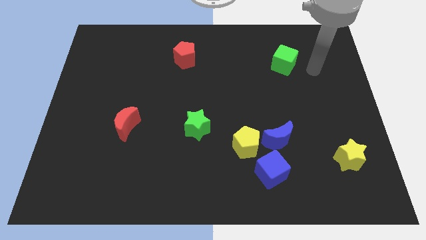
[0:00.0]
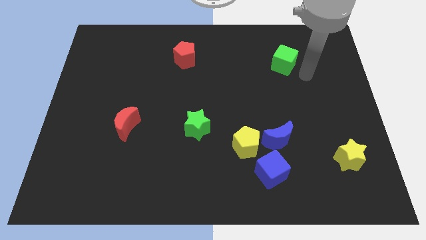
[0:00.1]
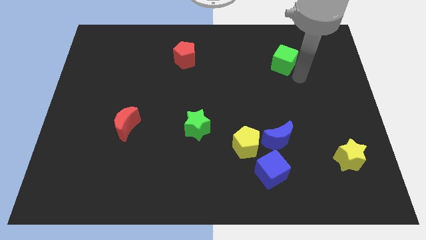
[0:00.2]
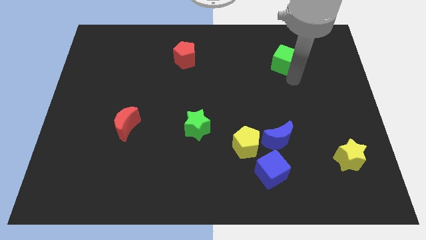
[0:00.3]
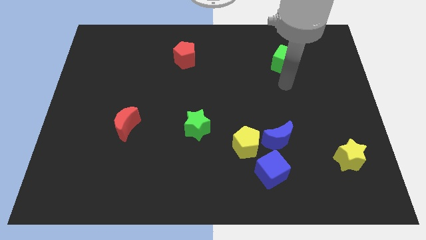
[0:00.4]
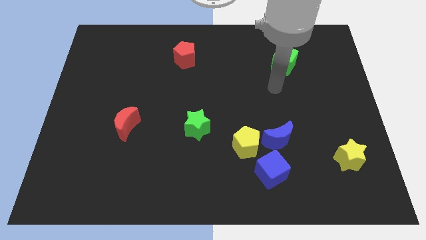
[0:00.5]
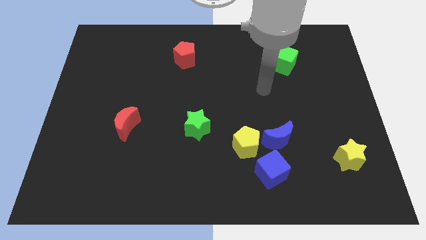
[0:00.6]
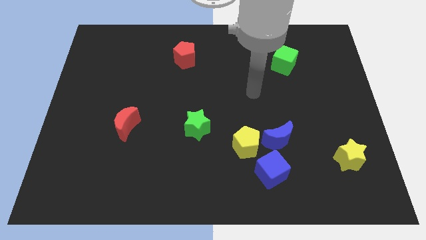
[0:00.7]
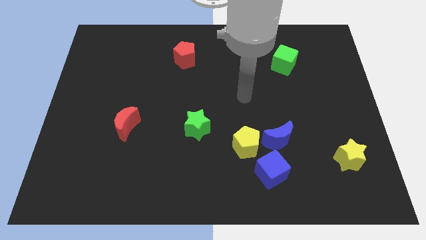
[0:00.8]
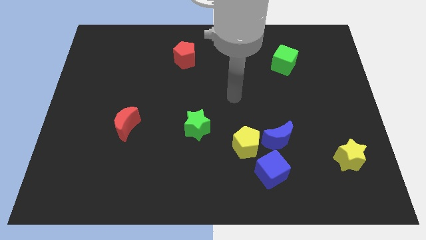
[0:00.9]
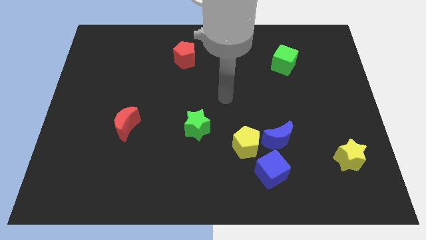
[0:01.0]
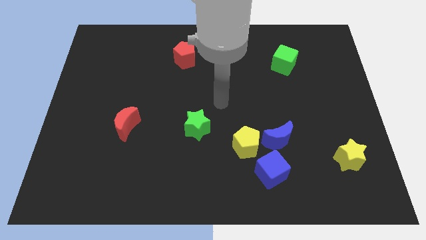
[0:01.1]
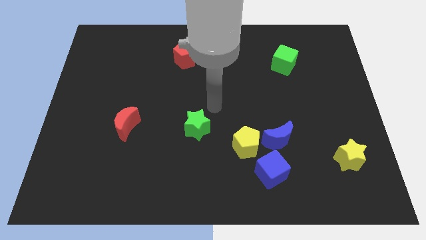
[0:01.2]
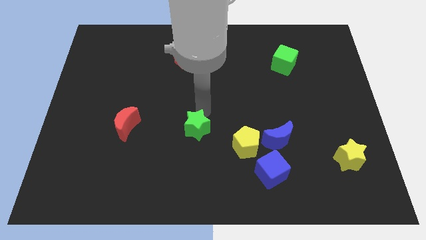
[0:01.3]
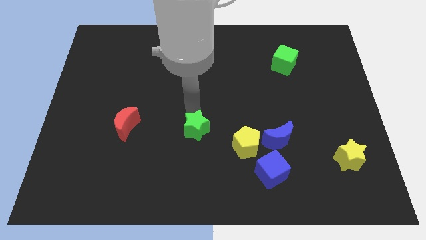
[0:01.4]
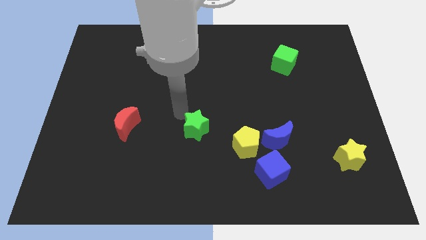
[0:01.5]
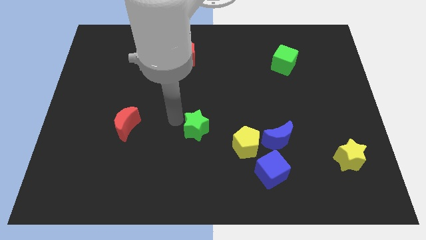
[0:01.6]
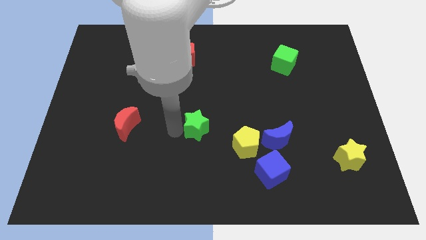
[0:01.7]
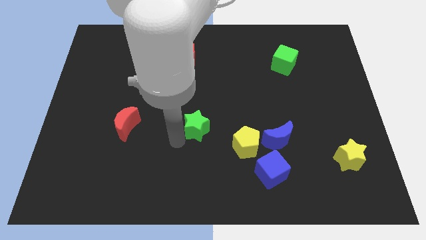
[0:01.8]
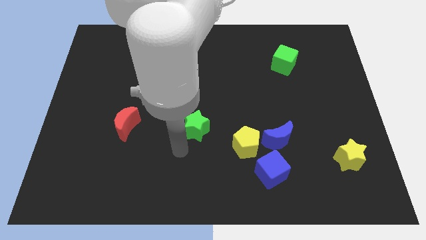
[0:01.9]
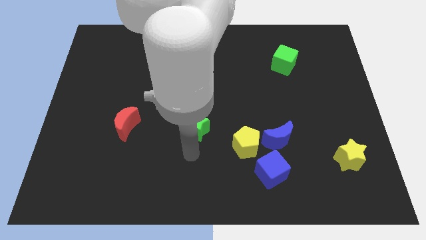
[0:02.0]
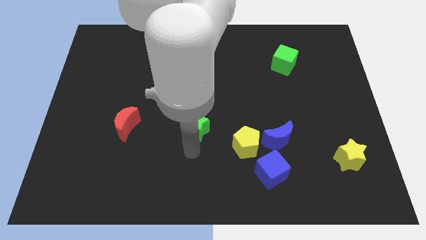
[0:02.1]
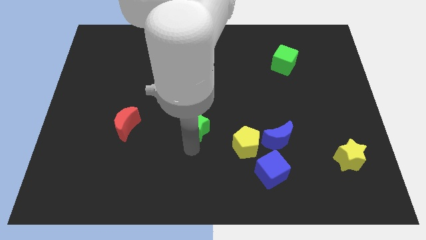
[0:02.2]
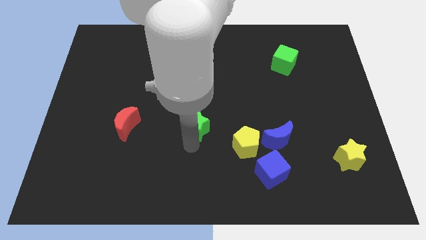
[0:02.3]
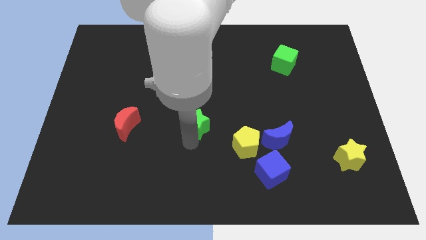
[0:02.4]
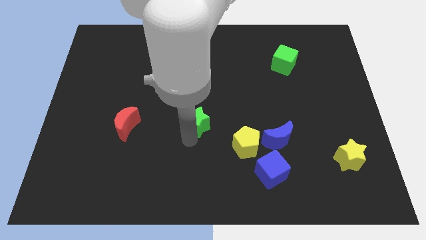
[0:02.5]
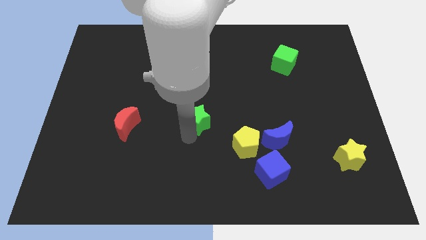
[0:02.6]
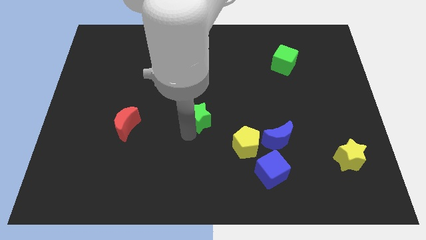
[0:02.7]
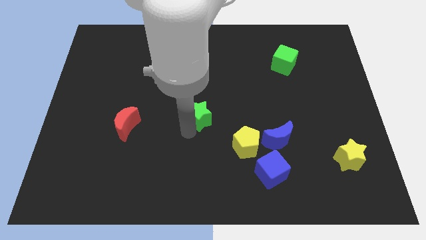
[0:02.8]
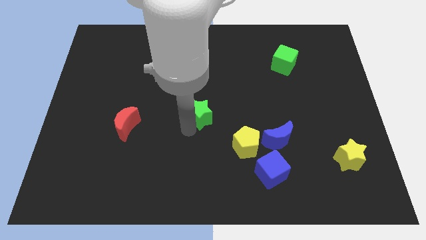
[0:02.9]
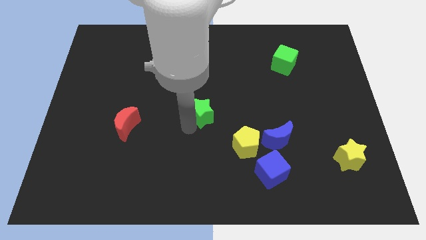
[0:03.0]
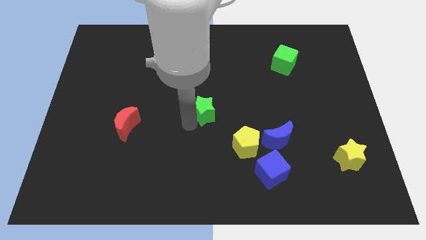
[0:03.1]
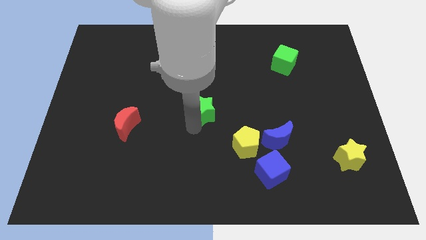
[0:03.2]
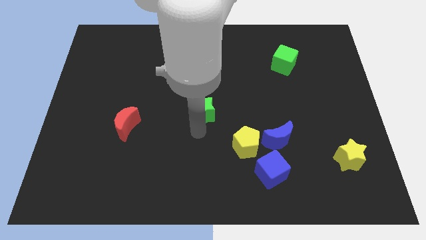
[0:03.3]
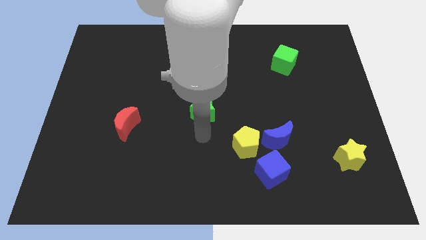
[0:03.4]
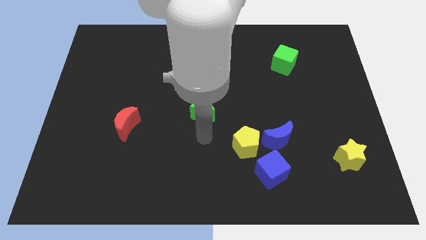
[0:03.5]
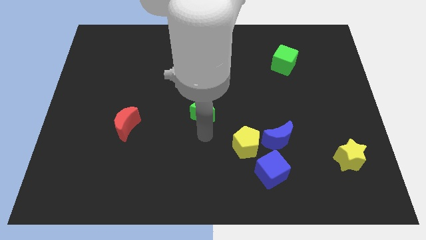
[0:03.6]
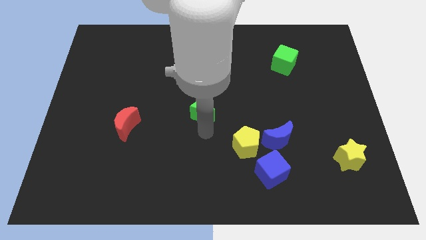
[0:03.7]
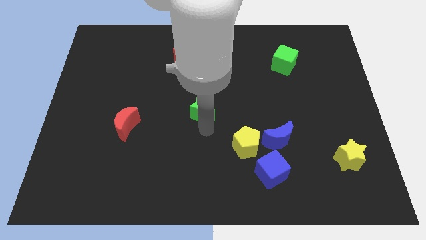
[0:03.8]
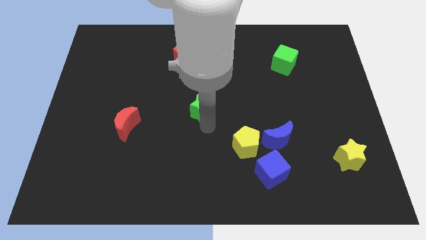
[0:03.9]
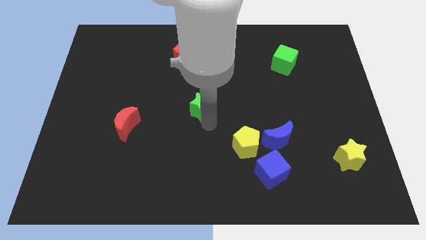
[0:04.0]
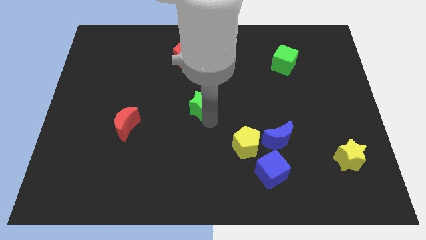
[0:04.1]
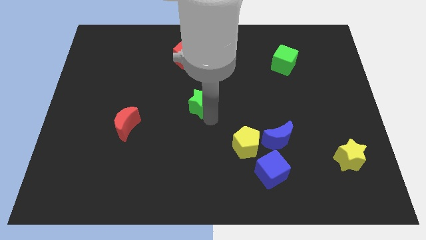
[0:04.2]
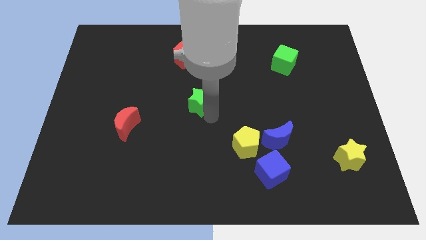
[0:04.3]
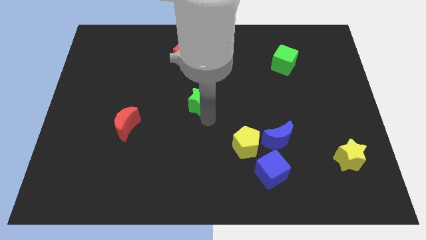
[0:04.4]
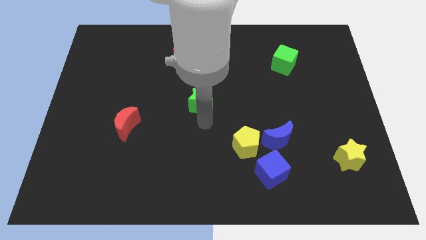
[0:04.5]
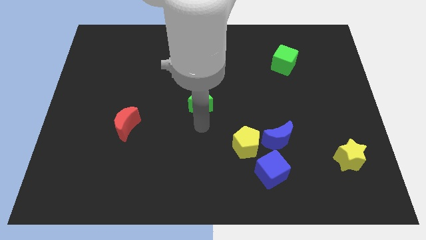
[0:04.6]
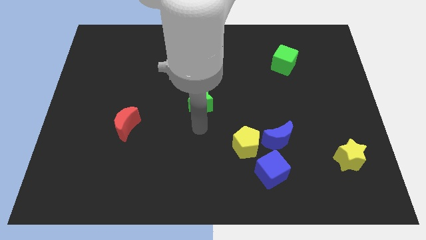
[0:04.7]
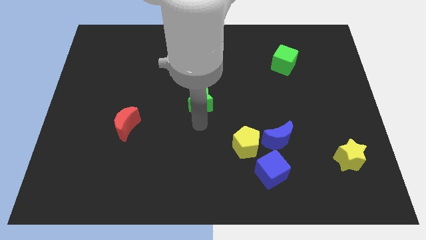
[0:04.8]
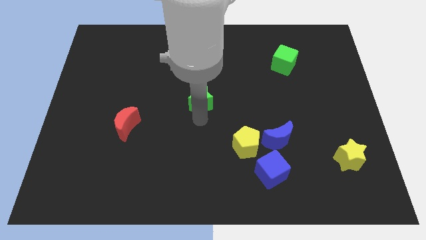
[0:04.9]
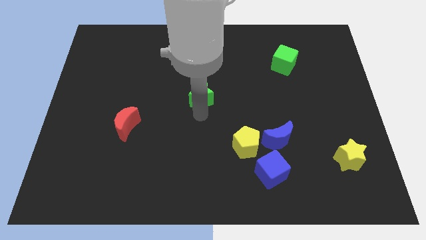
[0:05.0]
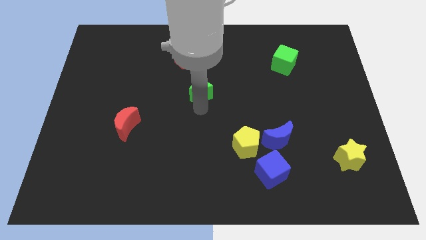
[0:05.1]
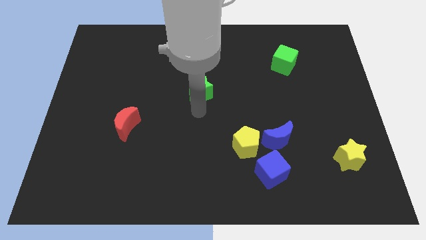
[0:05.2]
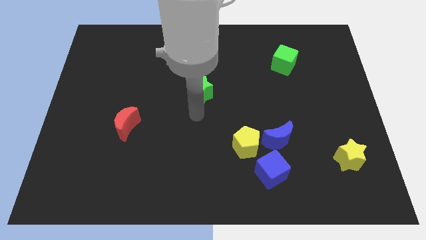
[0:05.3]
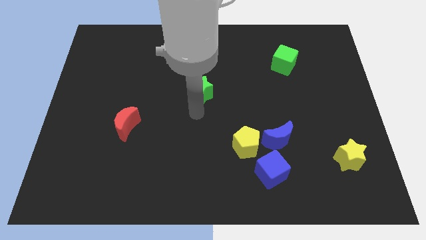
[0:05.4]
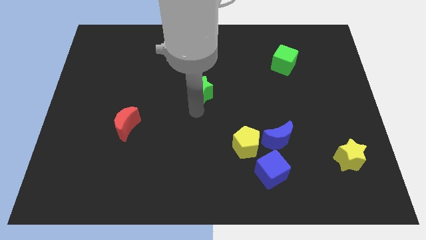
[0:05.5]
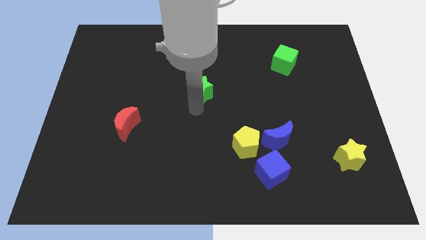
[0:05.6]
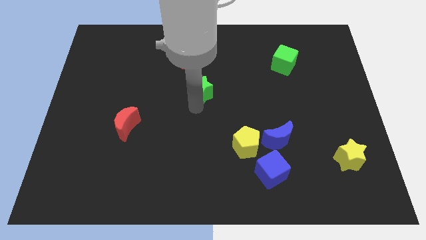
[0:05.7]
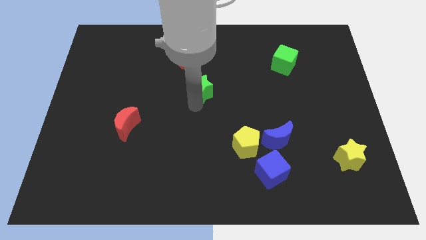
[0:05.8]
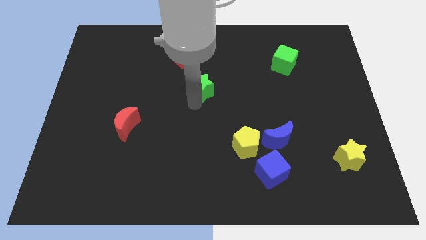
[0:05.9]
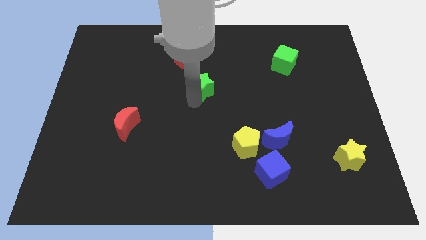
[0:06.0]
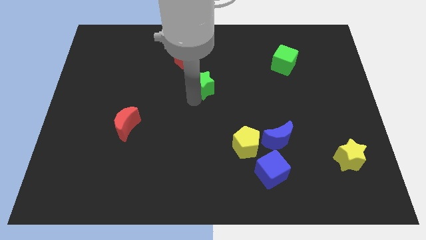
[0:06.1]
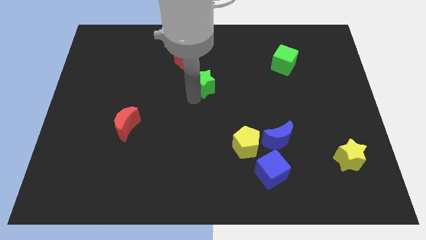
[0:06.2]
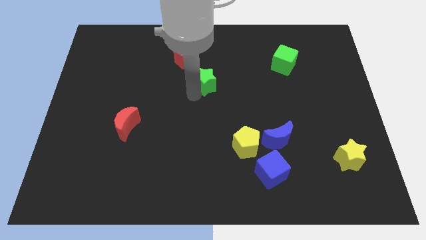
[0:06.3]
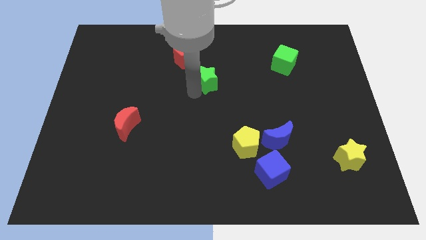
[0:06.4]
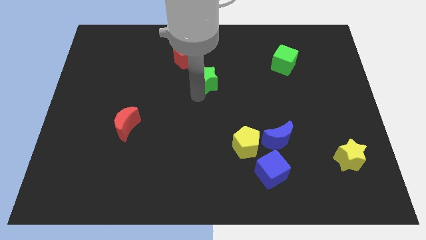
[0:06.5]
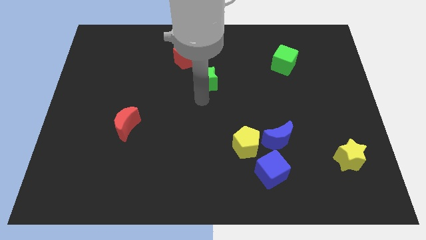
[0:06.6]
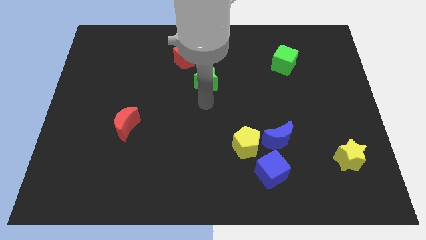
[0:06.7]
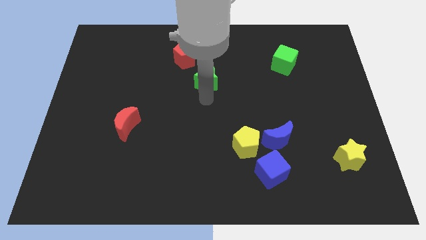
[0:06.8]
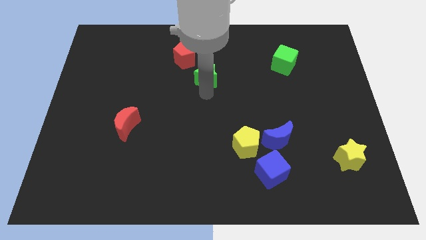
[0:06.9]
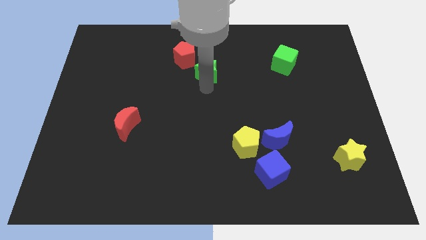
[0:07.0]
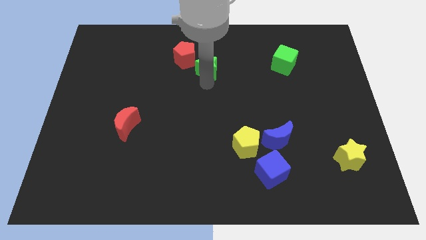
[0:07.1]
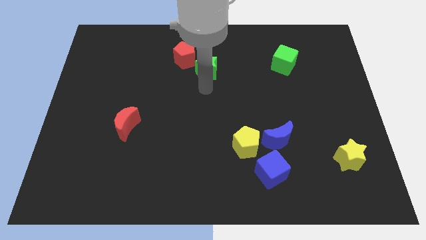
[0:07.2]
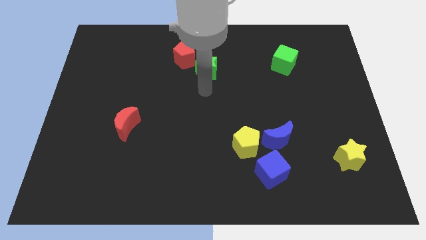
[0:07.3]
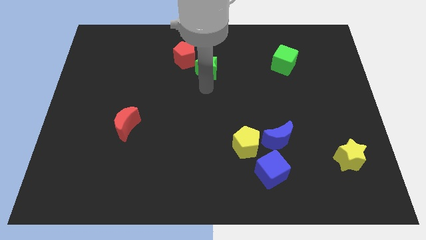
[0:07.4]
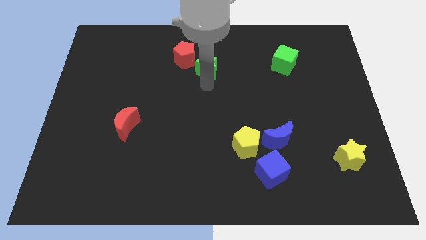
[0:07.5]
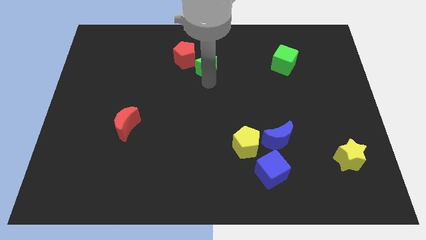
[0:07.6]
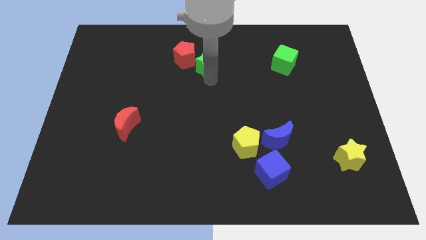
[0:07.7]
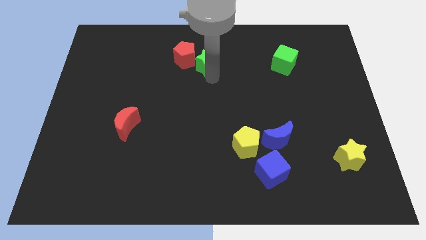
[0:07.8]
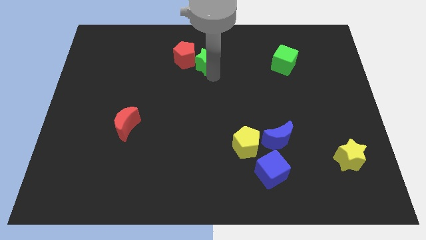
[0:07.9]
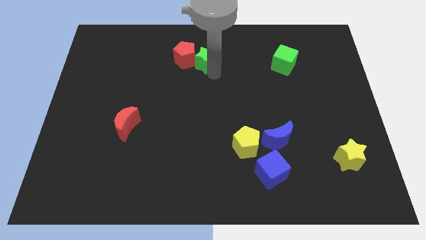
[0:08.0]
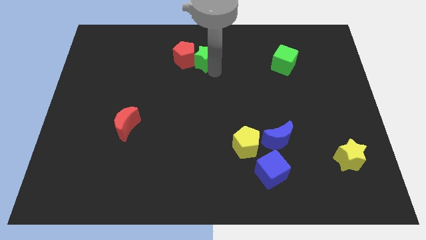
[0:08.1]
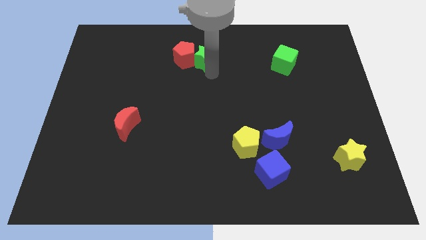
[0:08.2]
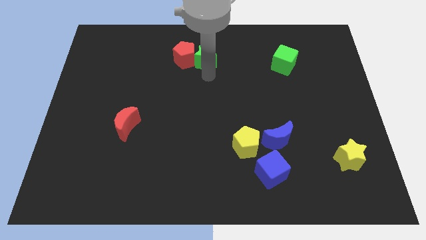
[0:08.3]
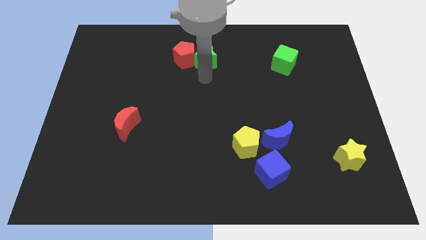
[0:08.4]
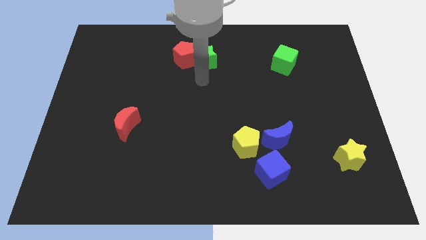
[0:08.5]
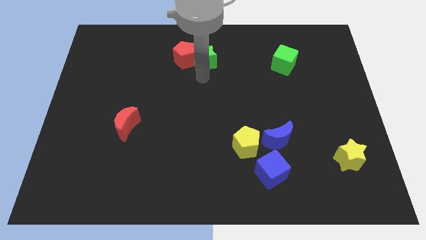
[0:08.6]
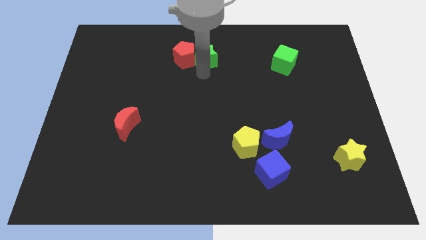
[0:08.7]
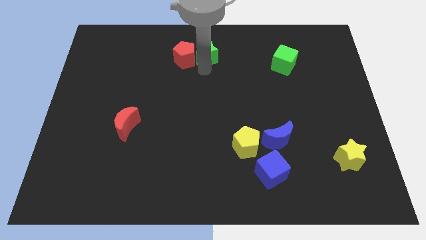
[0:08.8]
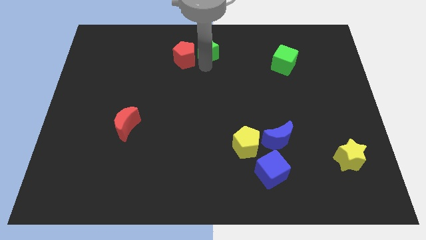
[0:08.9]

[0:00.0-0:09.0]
push the green star to the towards your base
